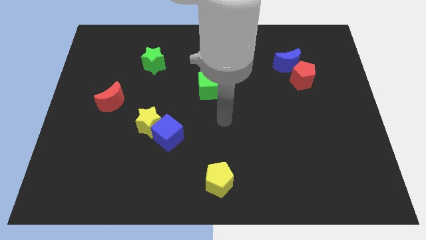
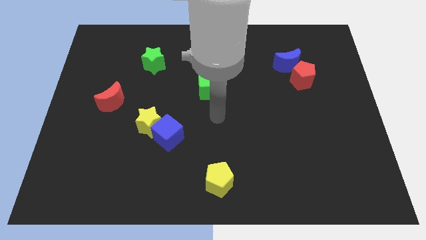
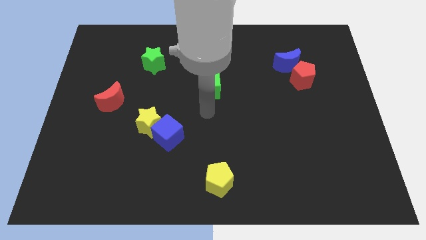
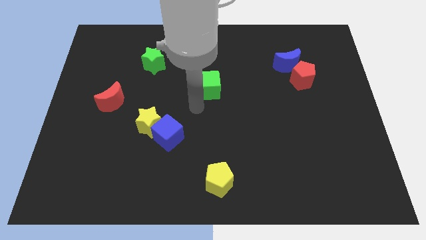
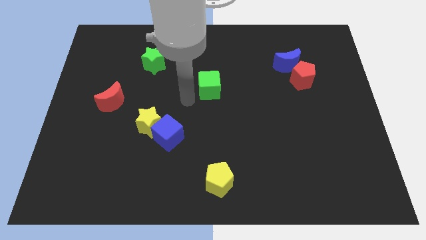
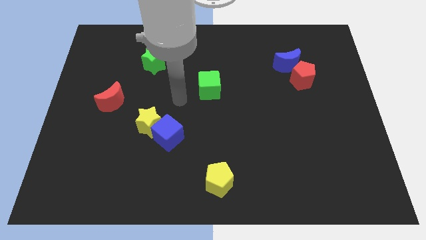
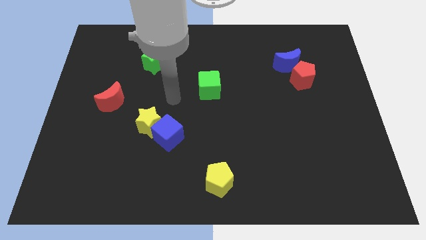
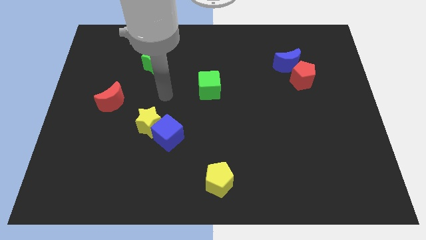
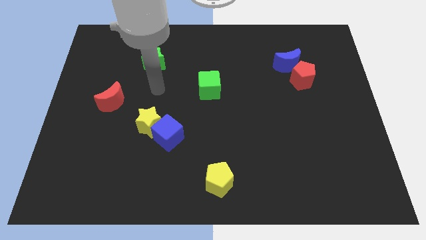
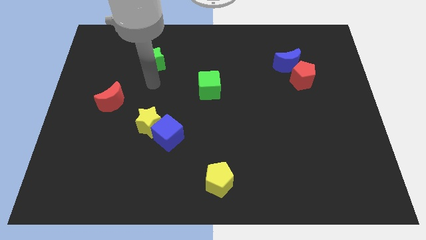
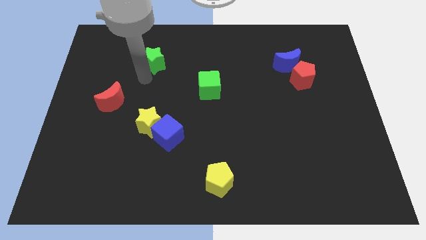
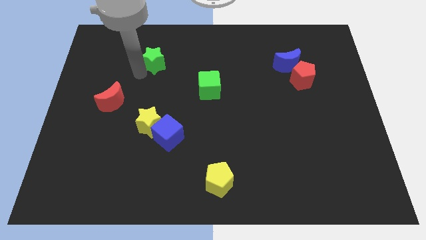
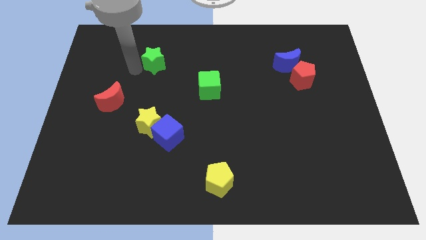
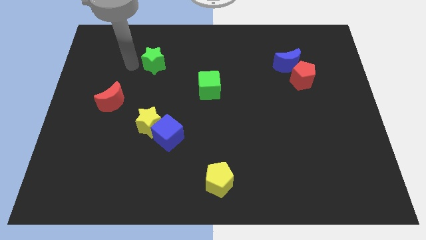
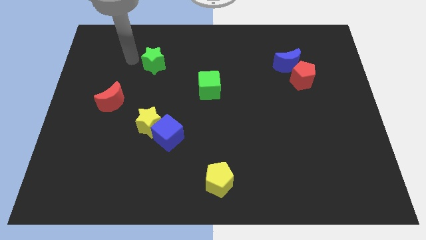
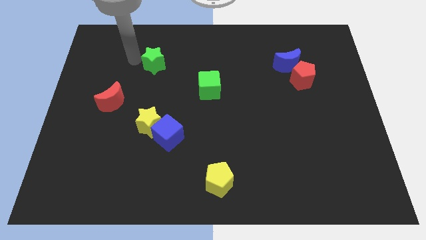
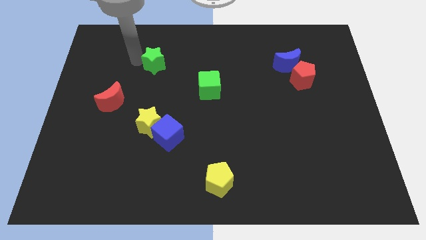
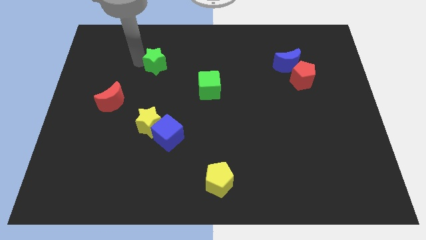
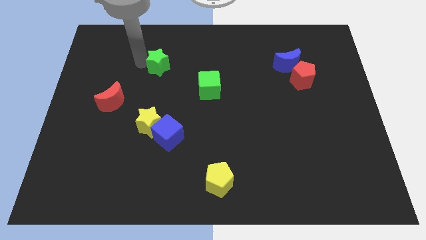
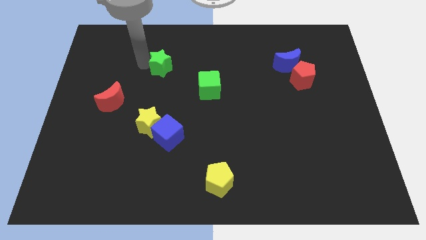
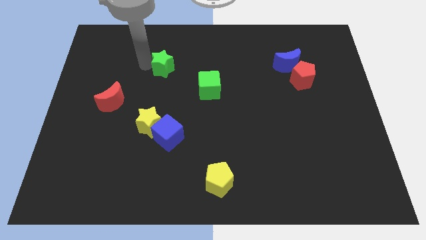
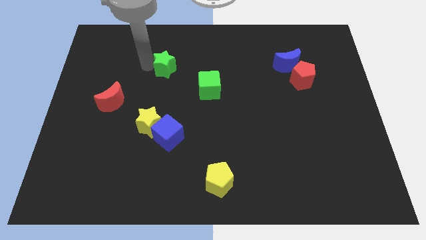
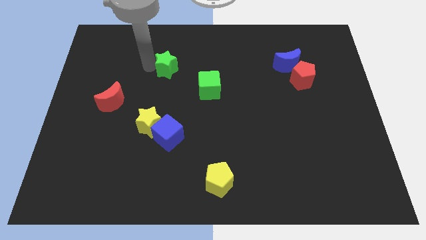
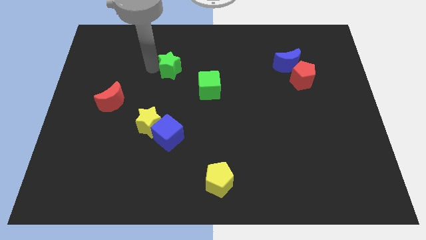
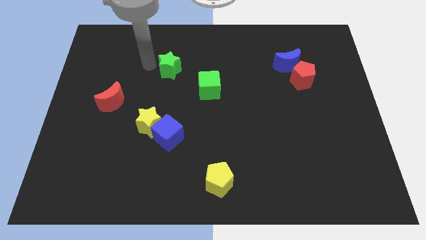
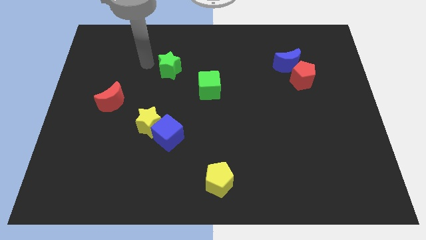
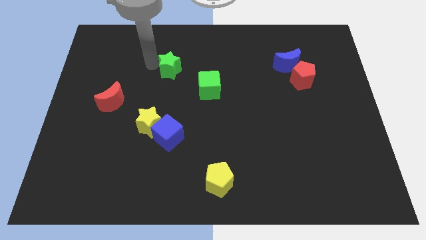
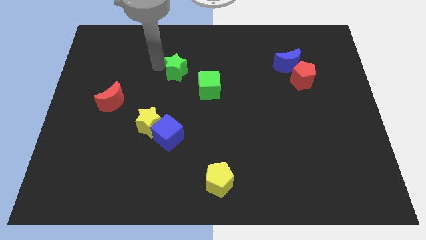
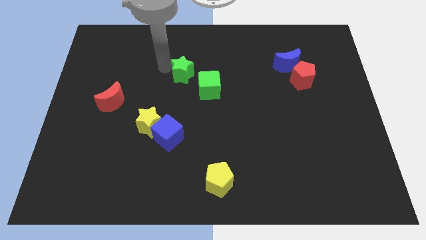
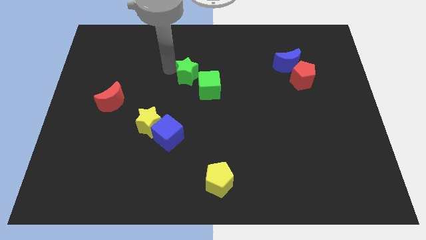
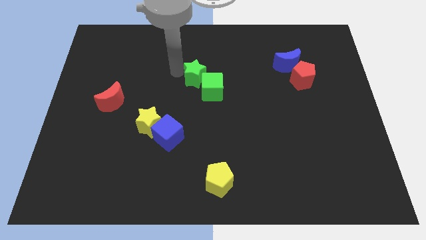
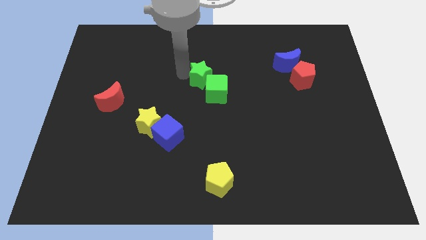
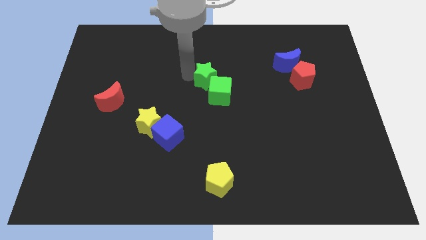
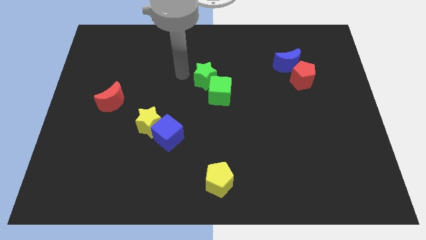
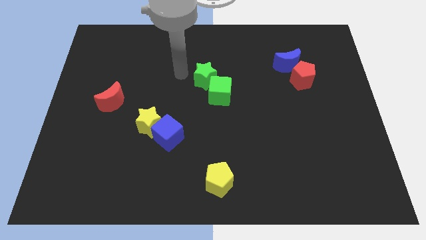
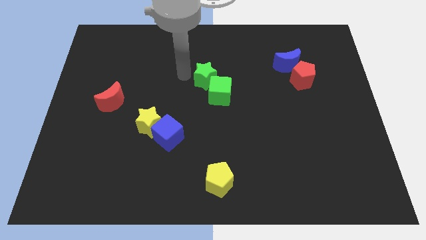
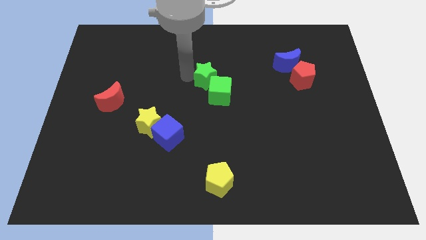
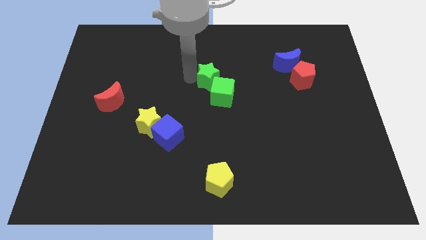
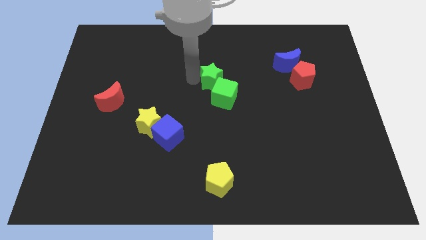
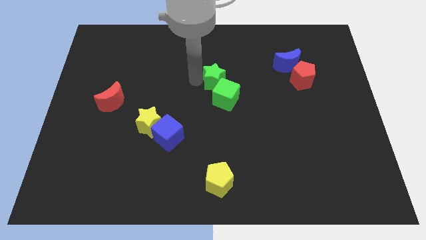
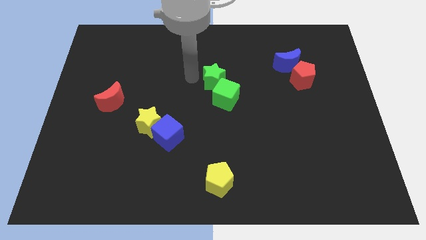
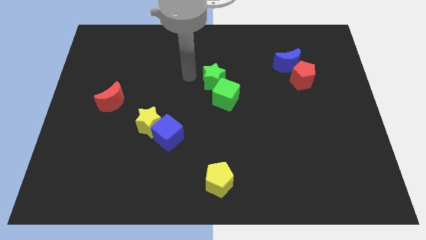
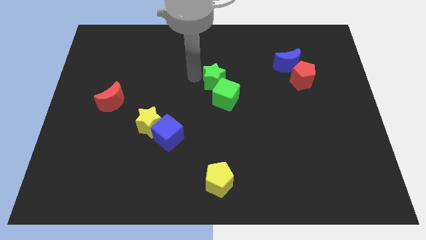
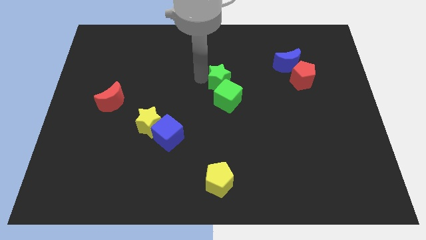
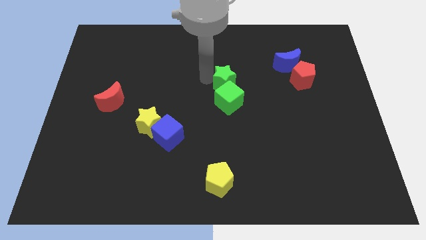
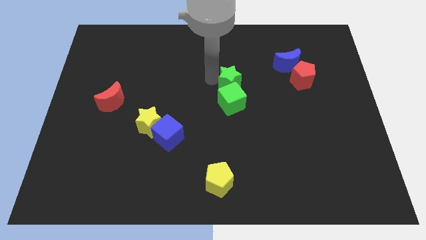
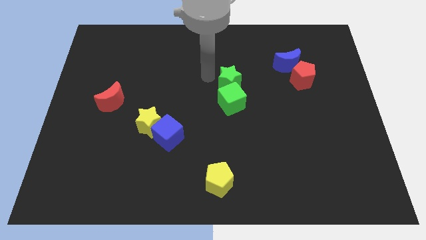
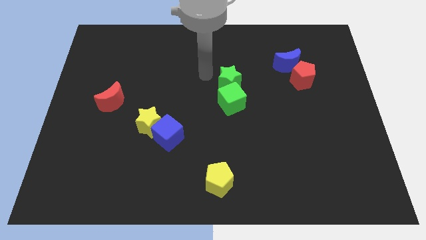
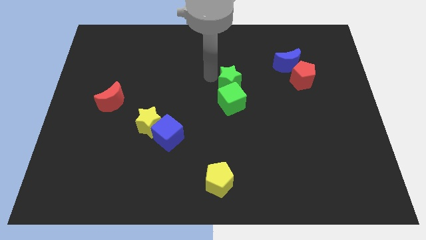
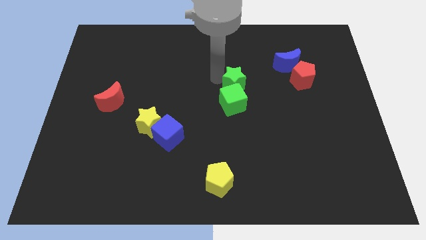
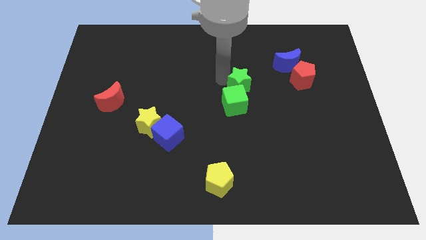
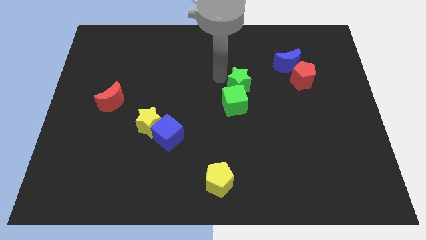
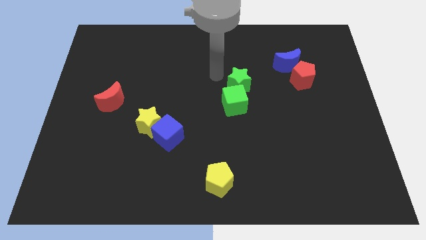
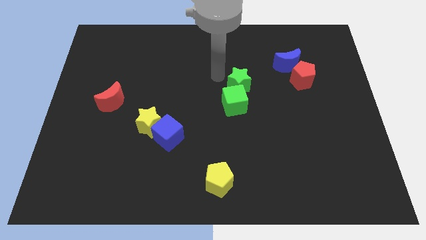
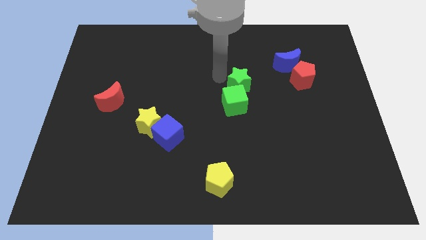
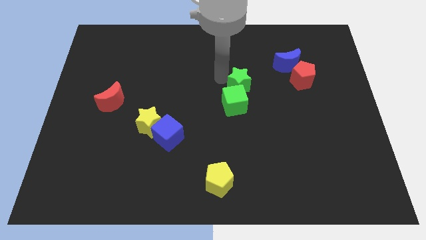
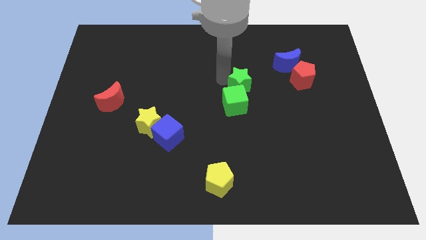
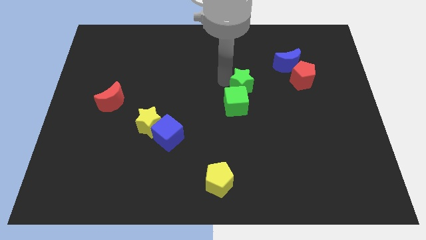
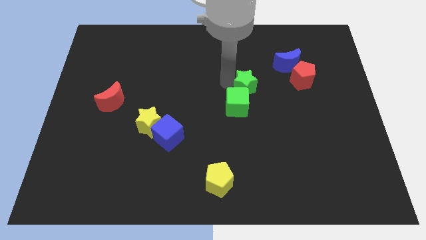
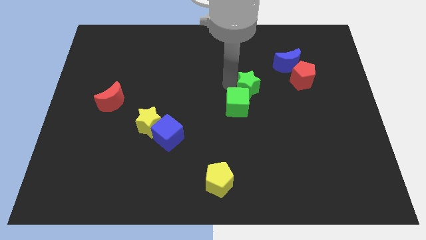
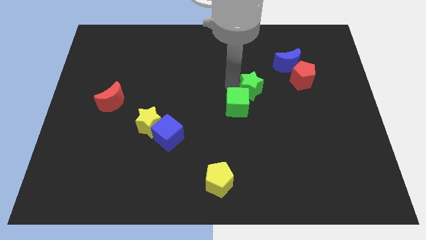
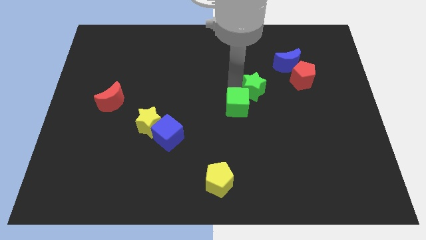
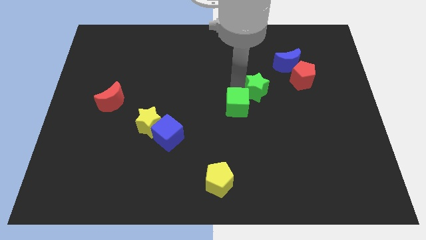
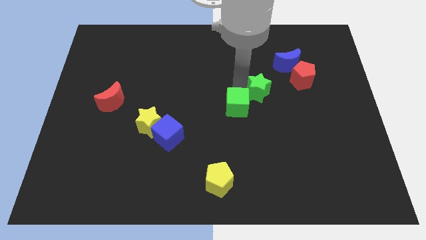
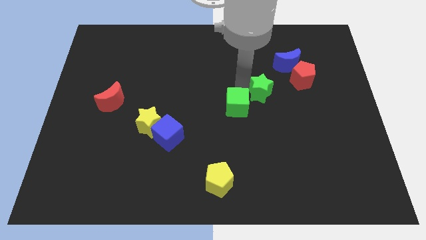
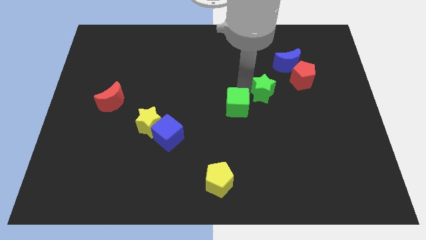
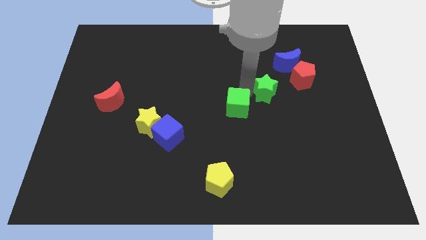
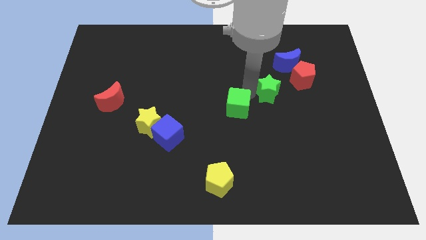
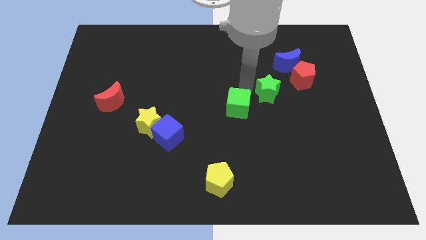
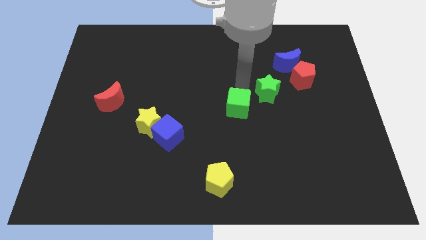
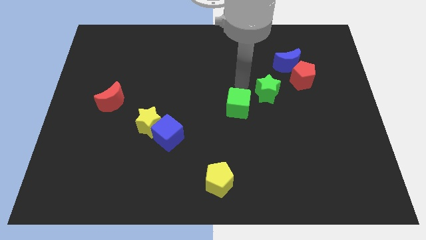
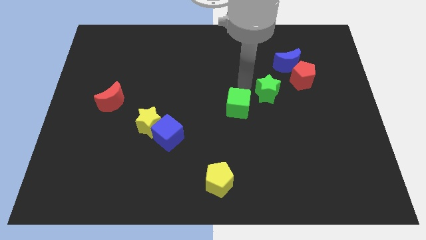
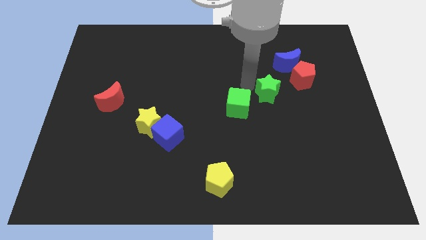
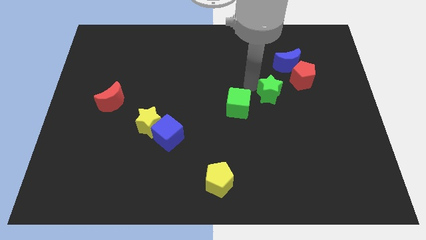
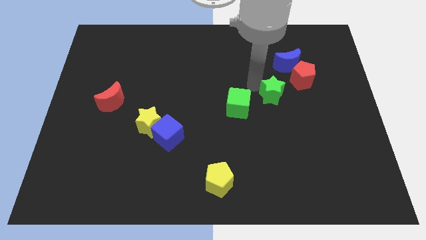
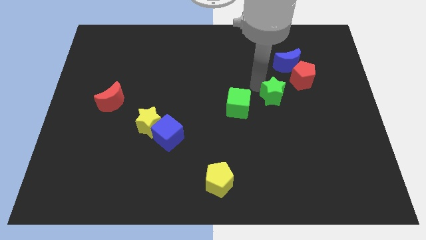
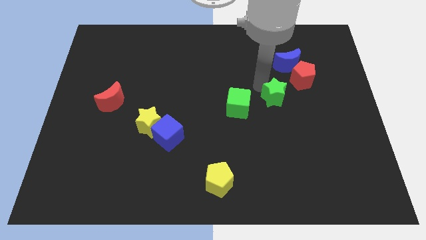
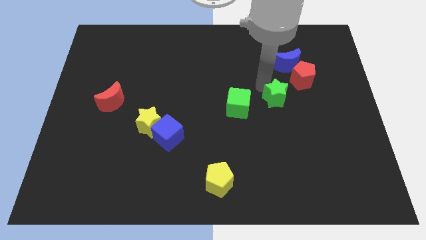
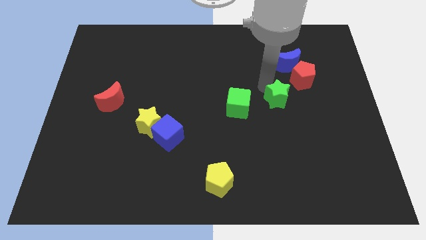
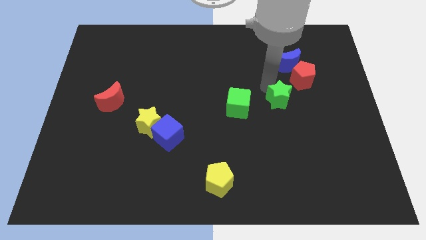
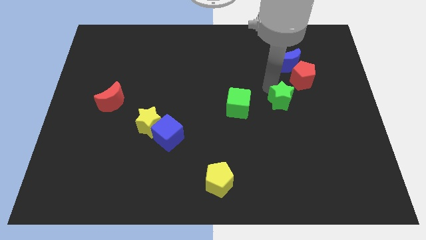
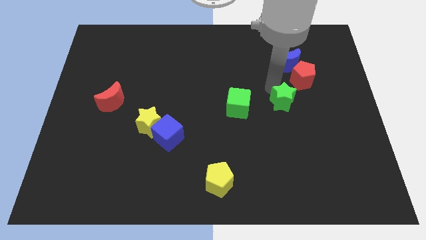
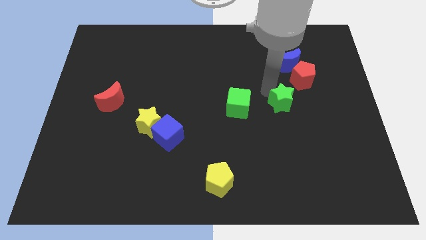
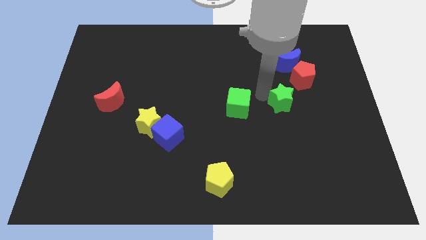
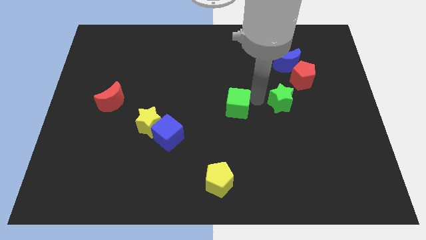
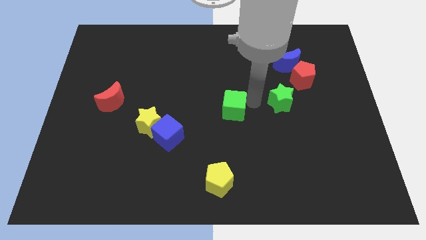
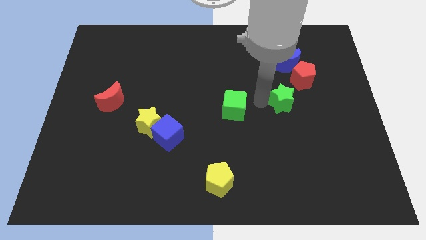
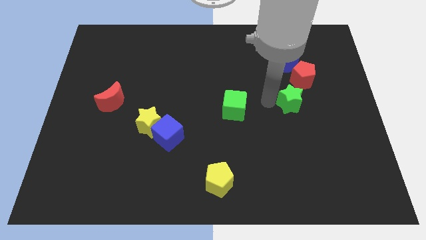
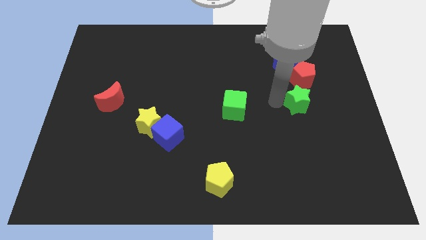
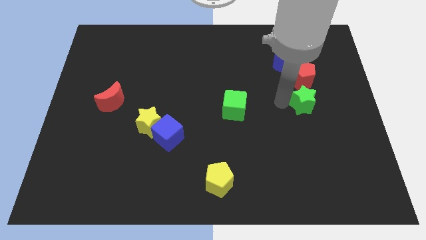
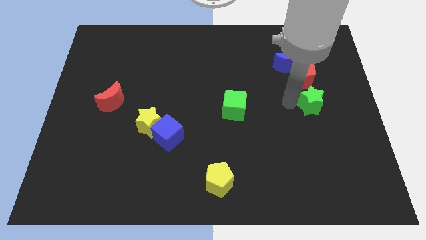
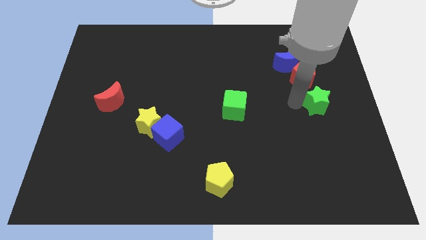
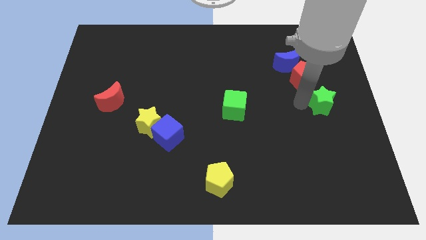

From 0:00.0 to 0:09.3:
push the green star to the right side
